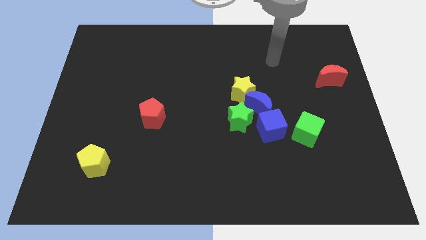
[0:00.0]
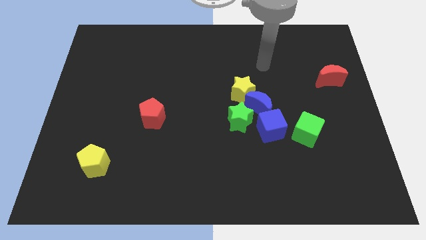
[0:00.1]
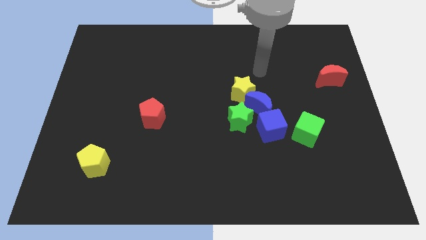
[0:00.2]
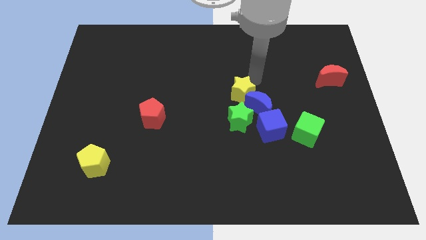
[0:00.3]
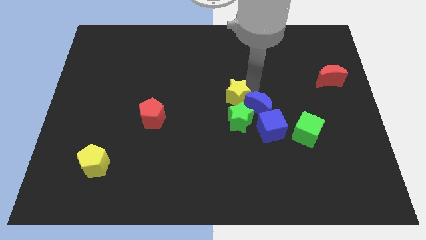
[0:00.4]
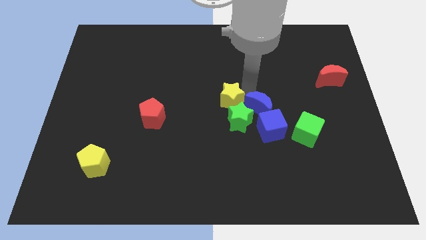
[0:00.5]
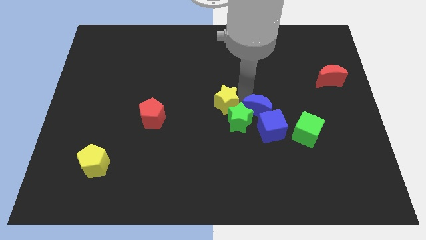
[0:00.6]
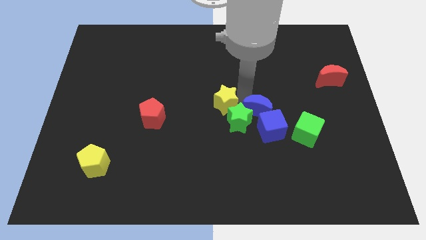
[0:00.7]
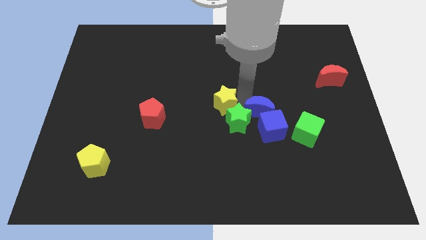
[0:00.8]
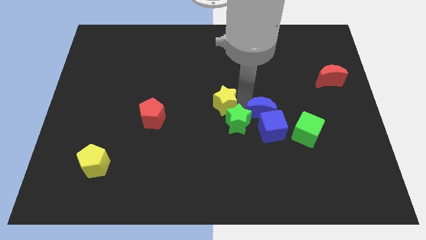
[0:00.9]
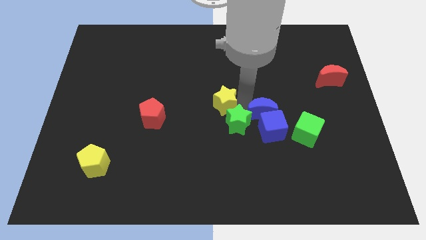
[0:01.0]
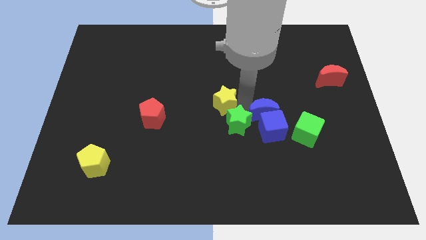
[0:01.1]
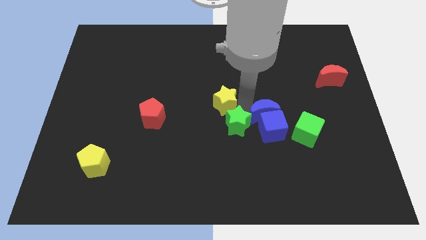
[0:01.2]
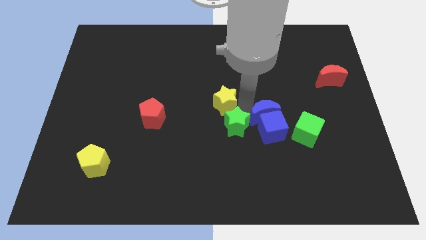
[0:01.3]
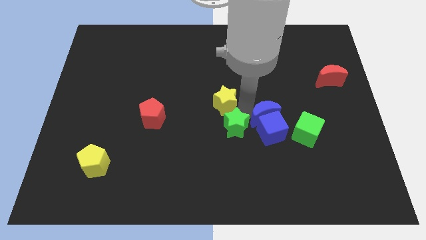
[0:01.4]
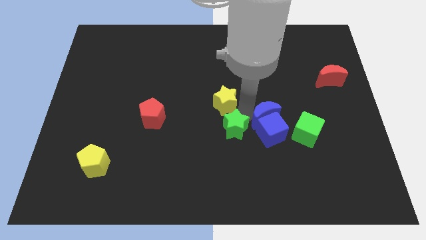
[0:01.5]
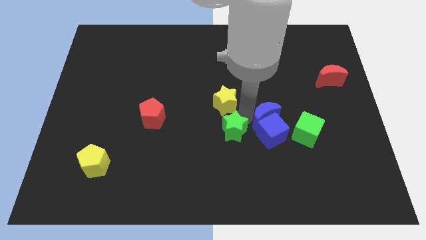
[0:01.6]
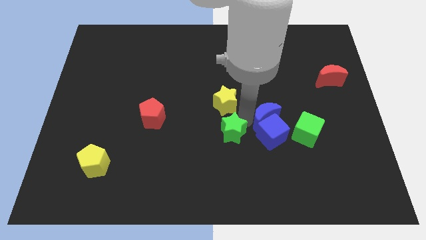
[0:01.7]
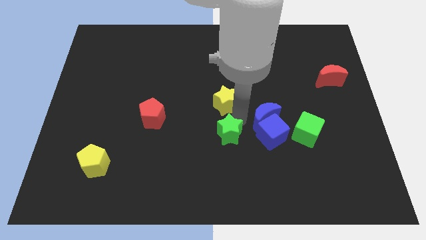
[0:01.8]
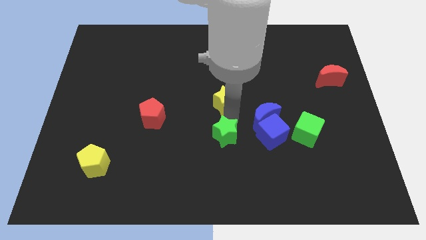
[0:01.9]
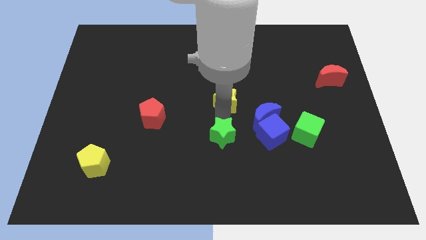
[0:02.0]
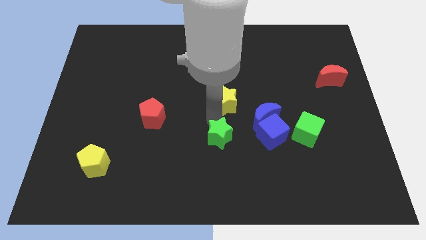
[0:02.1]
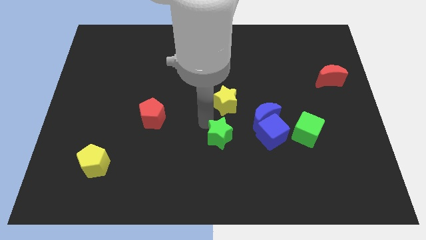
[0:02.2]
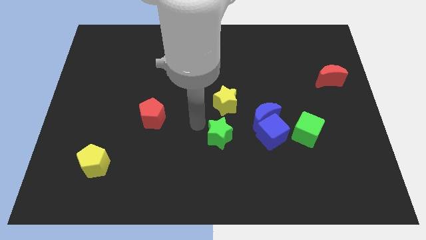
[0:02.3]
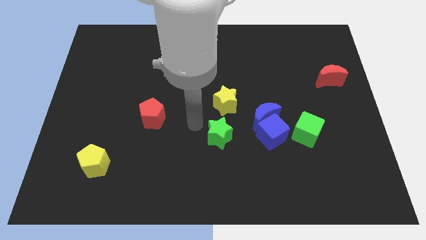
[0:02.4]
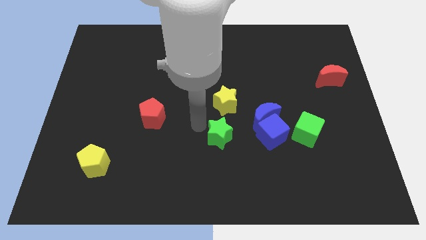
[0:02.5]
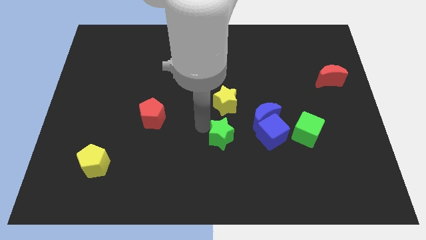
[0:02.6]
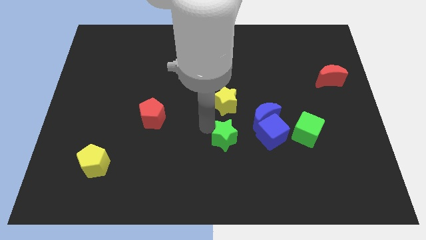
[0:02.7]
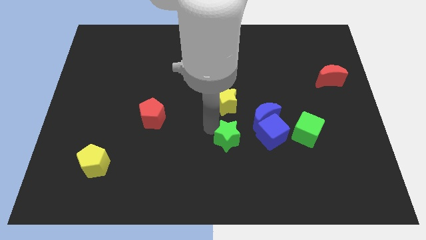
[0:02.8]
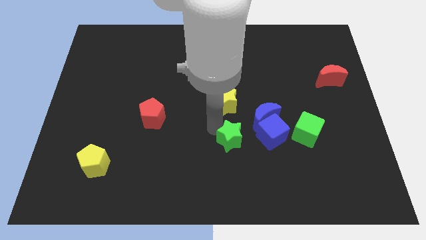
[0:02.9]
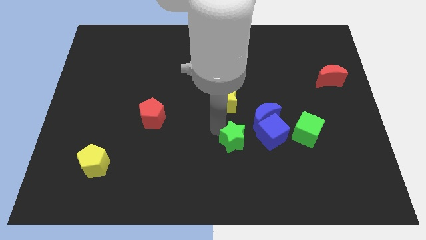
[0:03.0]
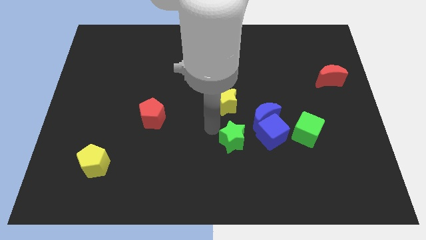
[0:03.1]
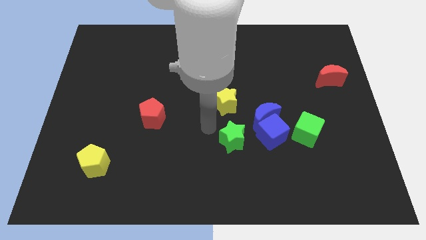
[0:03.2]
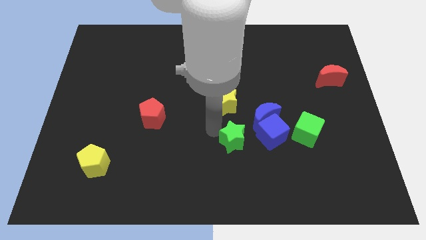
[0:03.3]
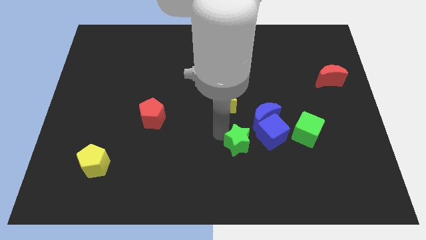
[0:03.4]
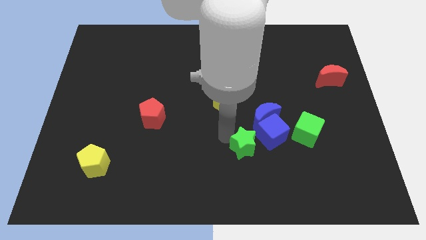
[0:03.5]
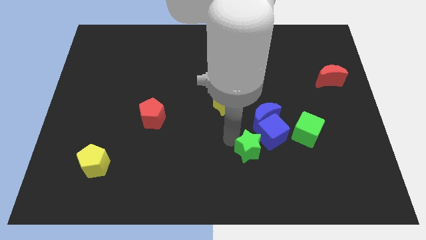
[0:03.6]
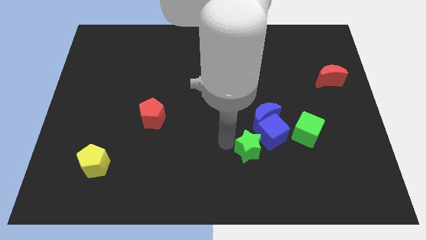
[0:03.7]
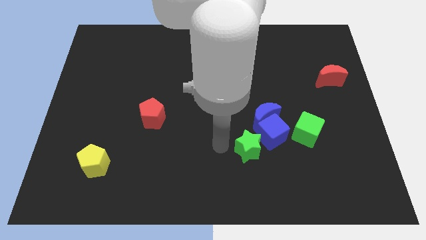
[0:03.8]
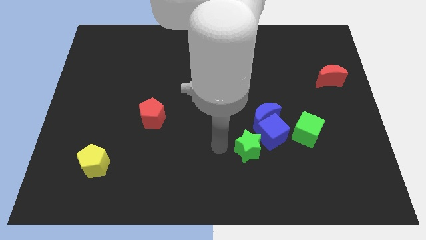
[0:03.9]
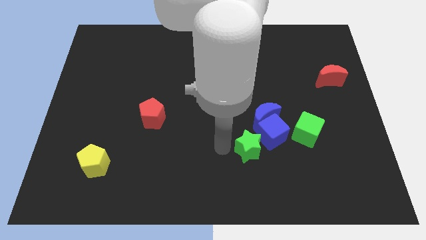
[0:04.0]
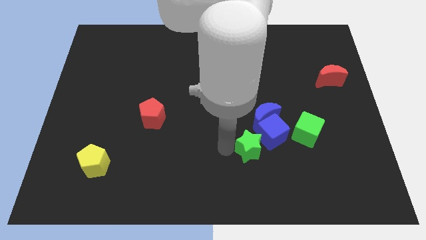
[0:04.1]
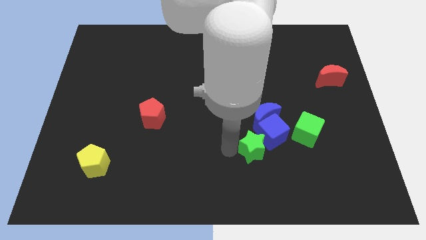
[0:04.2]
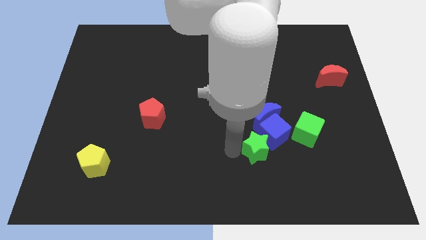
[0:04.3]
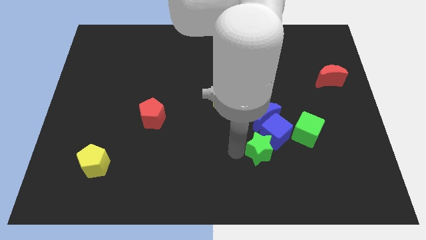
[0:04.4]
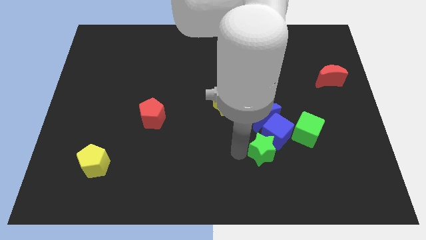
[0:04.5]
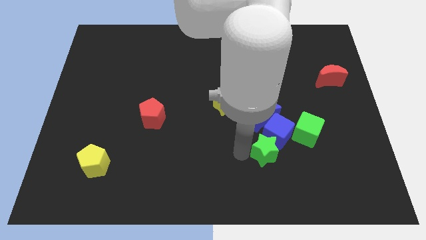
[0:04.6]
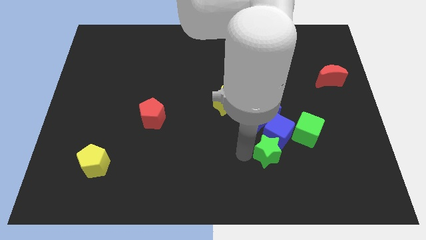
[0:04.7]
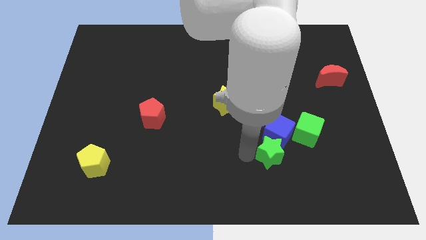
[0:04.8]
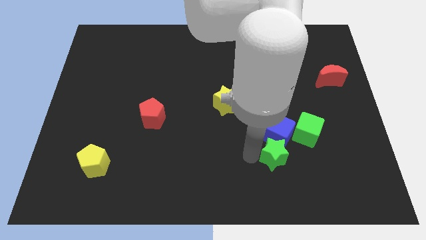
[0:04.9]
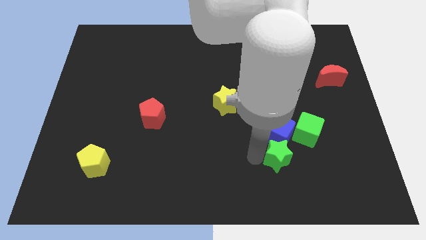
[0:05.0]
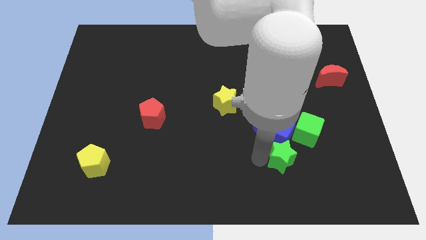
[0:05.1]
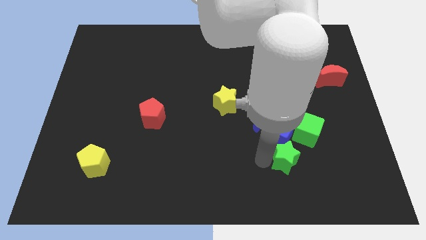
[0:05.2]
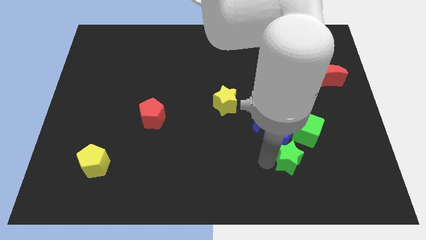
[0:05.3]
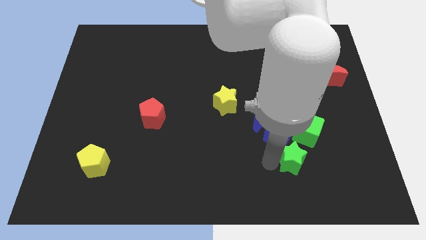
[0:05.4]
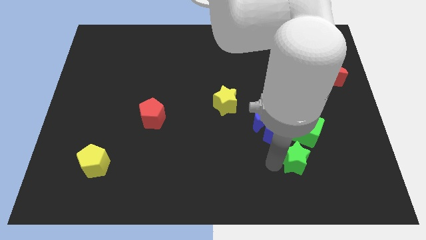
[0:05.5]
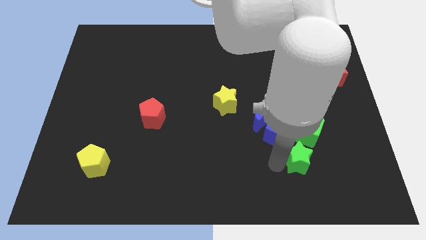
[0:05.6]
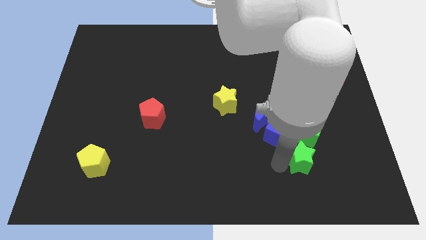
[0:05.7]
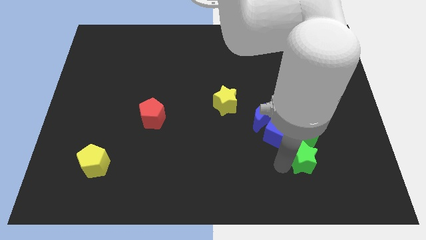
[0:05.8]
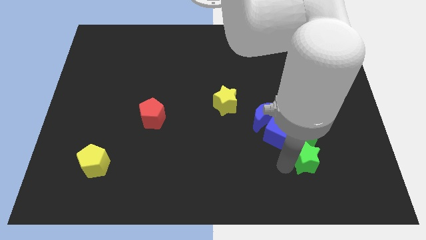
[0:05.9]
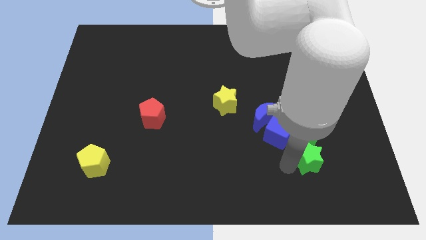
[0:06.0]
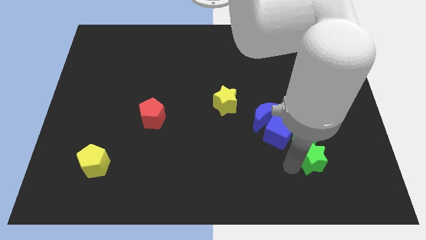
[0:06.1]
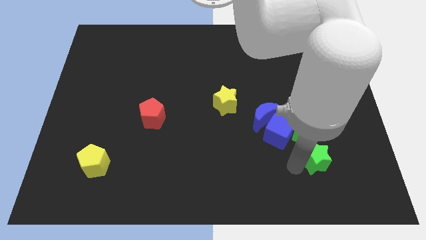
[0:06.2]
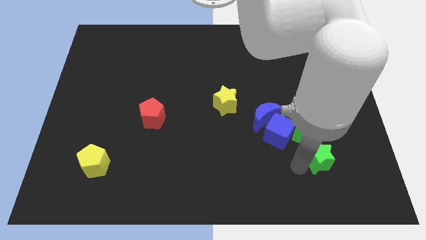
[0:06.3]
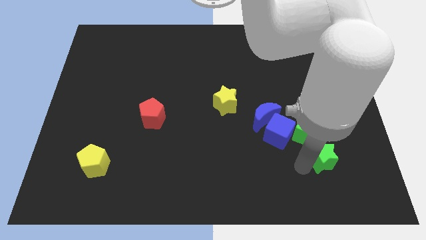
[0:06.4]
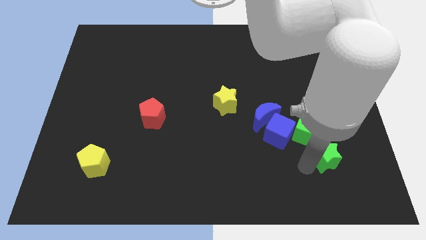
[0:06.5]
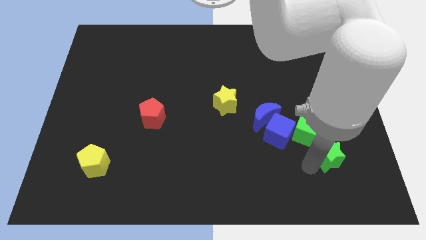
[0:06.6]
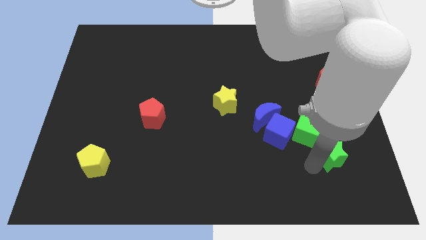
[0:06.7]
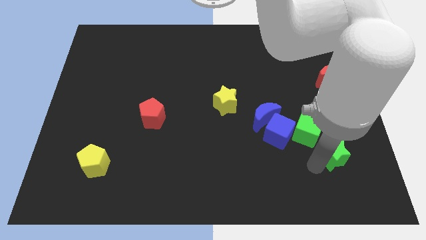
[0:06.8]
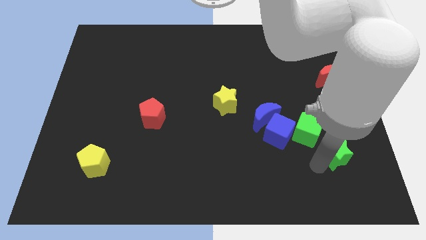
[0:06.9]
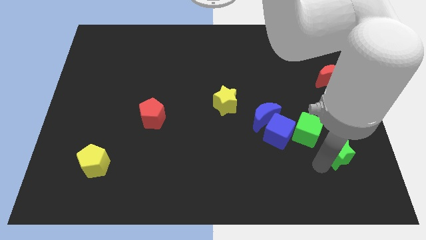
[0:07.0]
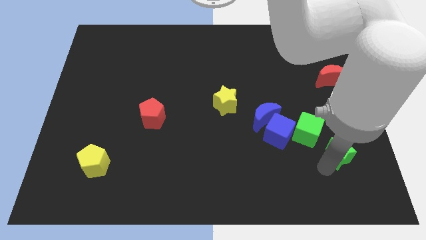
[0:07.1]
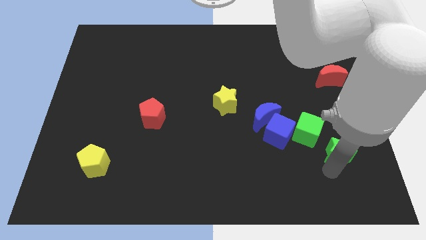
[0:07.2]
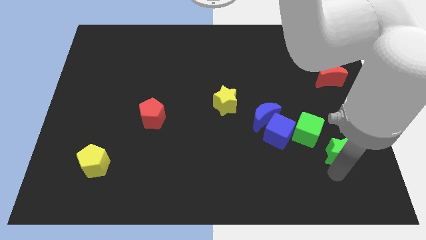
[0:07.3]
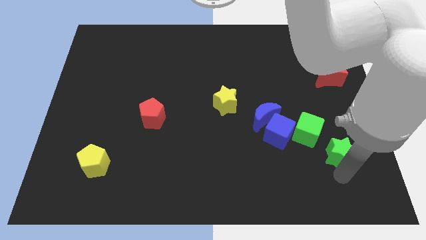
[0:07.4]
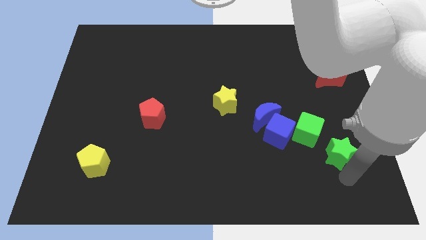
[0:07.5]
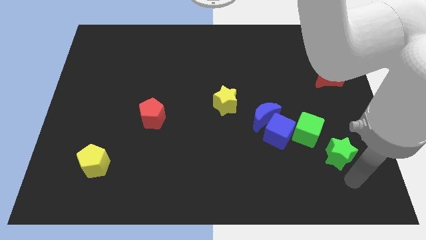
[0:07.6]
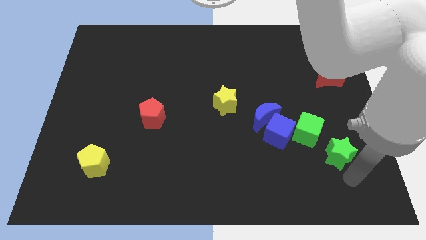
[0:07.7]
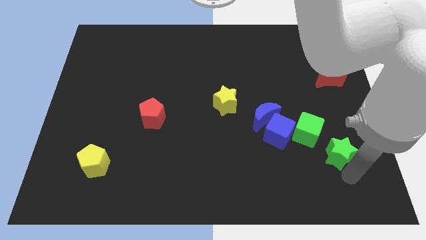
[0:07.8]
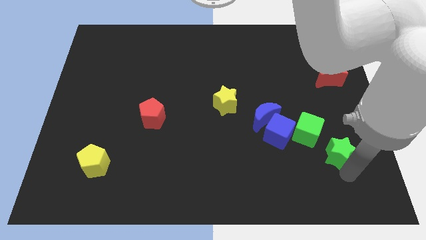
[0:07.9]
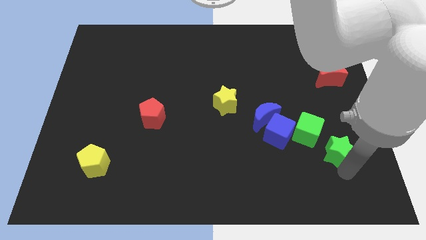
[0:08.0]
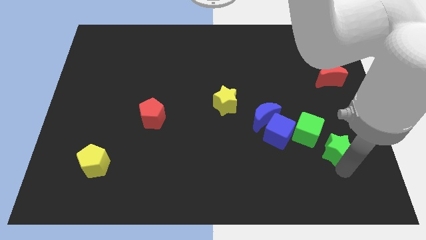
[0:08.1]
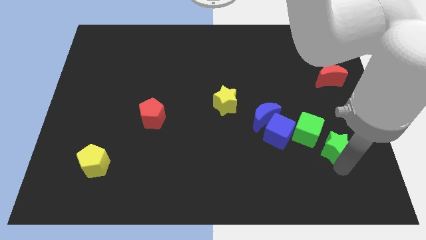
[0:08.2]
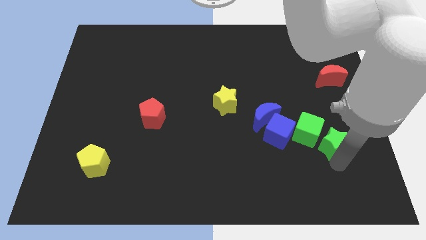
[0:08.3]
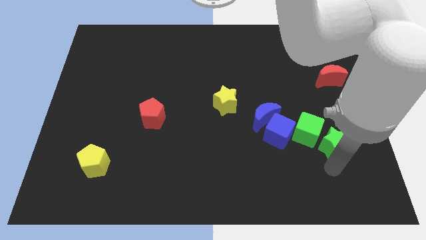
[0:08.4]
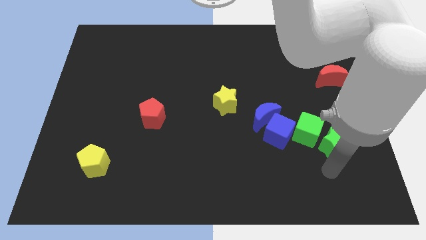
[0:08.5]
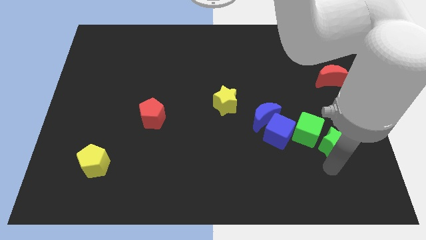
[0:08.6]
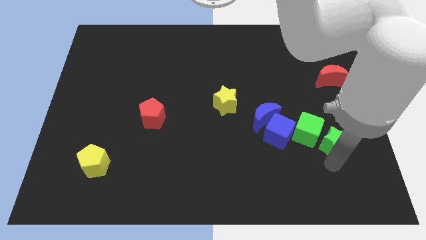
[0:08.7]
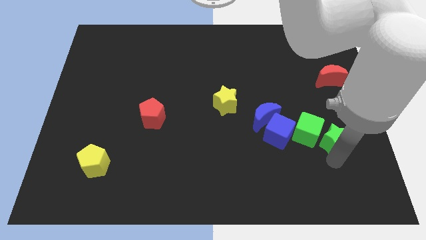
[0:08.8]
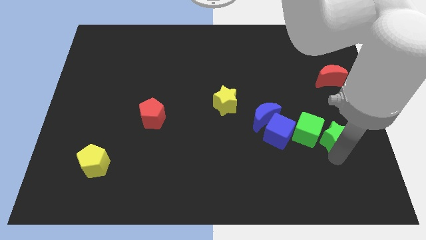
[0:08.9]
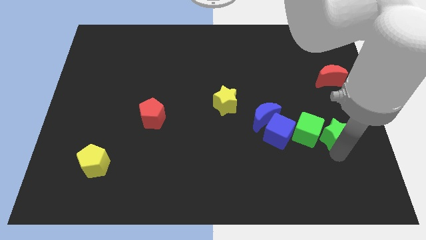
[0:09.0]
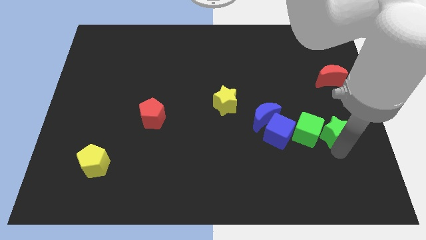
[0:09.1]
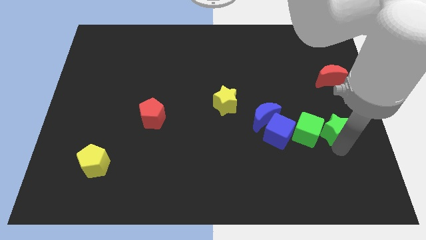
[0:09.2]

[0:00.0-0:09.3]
put the green star to the bottom of the red moon
